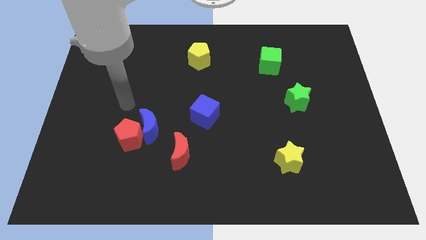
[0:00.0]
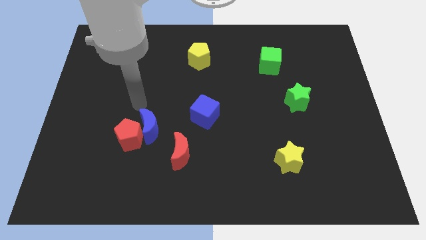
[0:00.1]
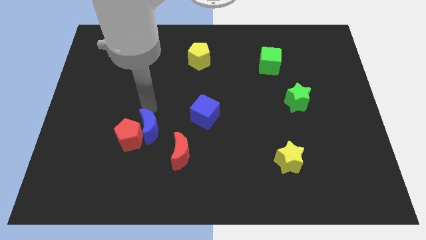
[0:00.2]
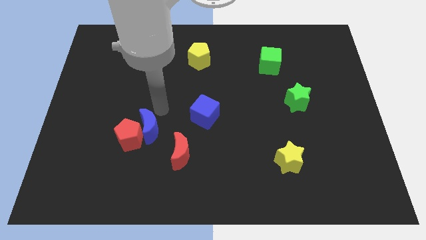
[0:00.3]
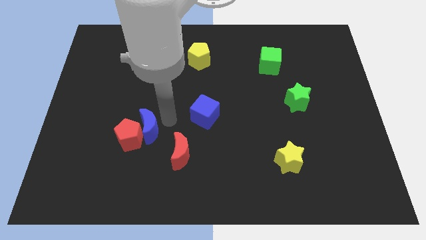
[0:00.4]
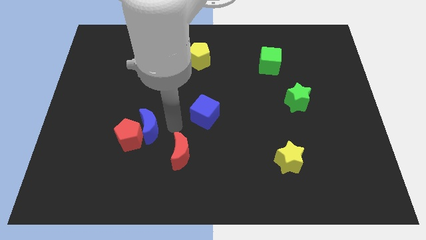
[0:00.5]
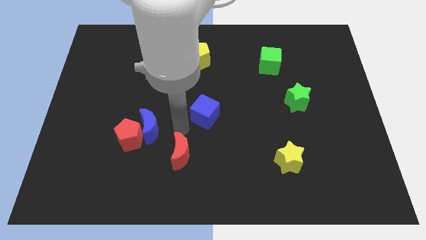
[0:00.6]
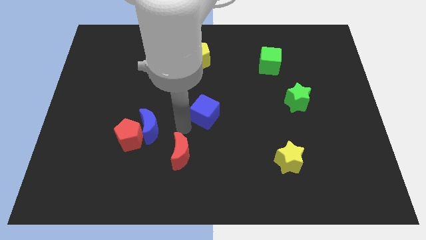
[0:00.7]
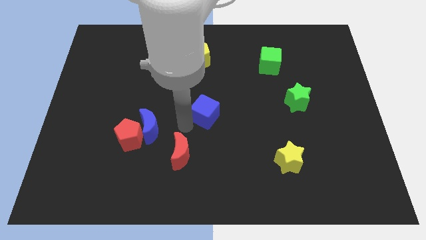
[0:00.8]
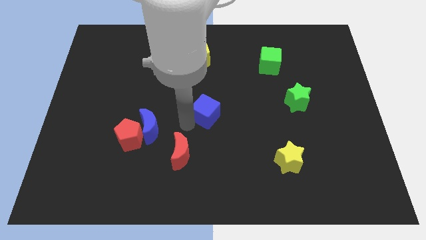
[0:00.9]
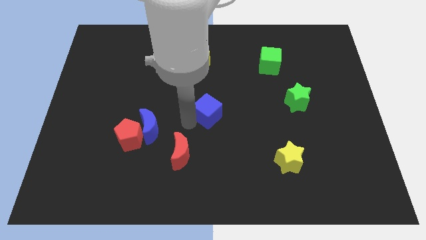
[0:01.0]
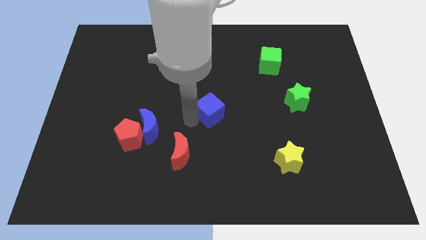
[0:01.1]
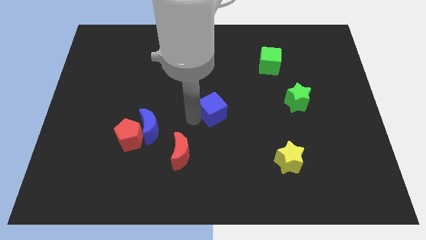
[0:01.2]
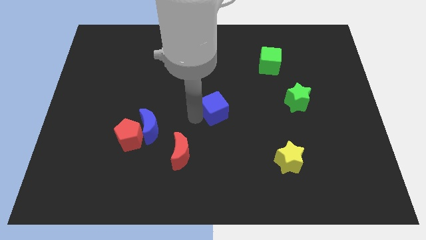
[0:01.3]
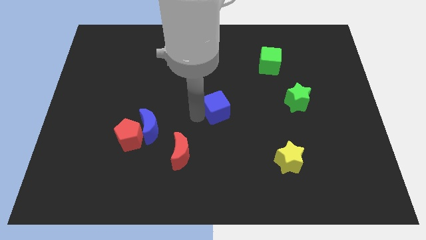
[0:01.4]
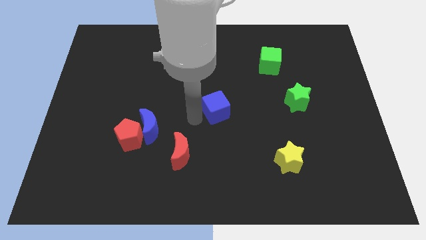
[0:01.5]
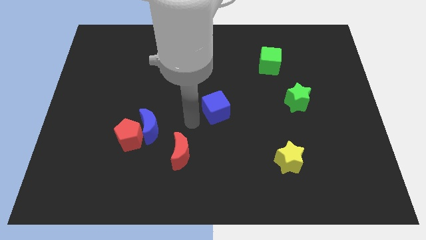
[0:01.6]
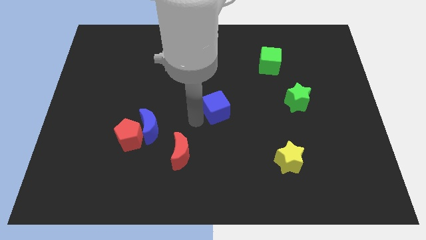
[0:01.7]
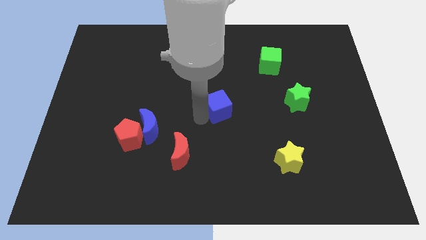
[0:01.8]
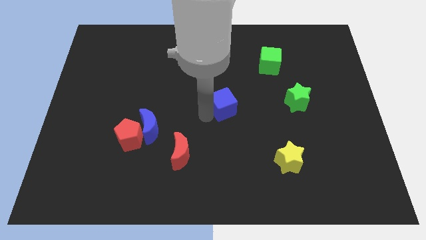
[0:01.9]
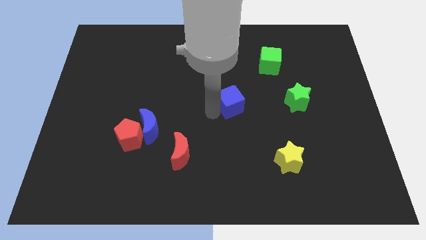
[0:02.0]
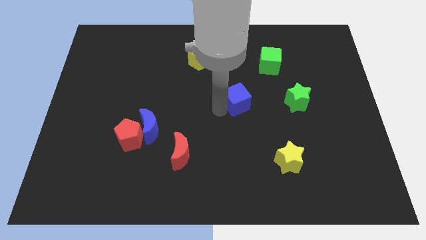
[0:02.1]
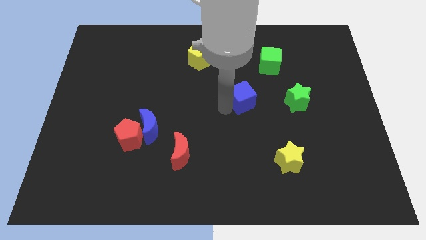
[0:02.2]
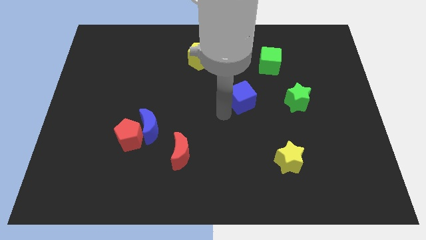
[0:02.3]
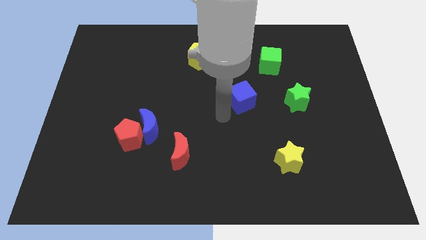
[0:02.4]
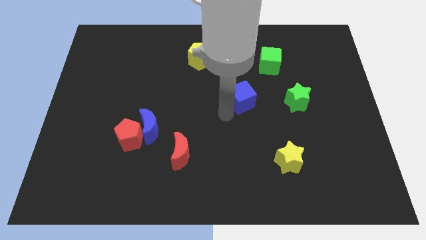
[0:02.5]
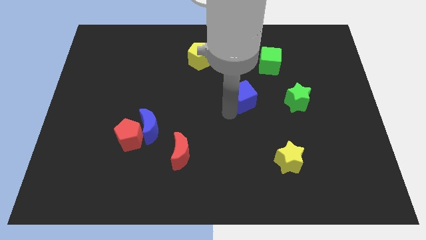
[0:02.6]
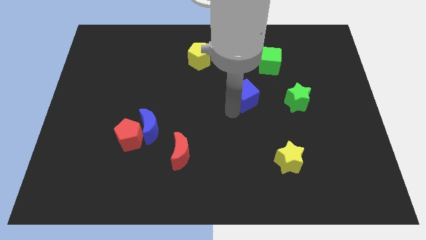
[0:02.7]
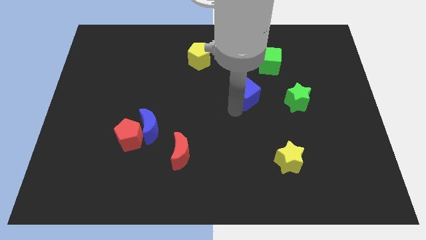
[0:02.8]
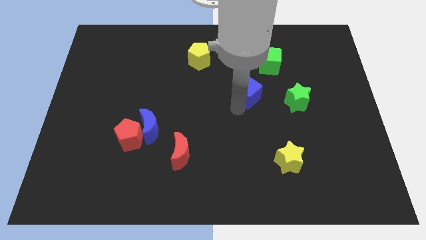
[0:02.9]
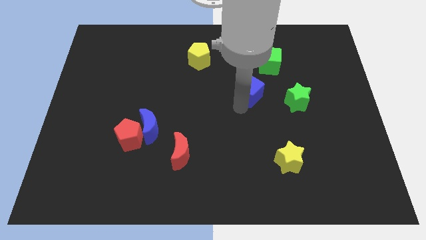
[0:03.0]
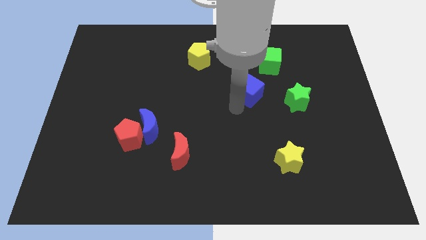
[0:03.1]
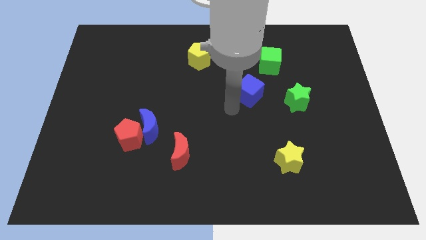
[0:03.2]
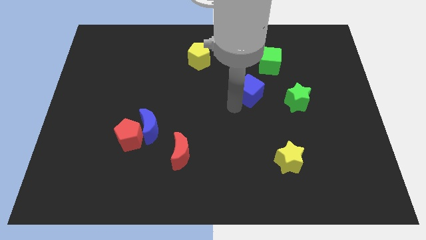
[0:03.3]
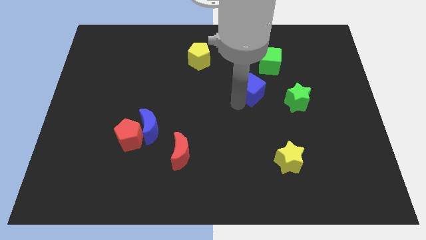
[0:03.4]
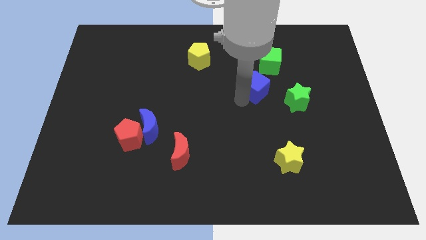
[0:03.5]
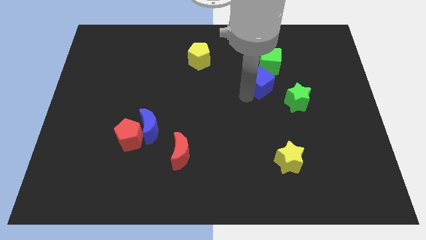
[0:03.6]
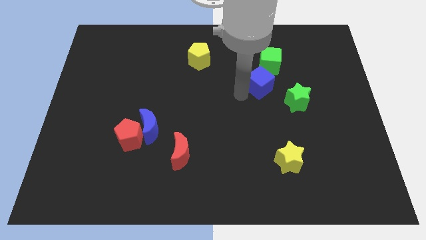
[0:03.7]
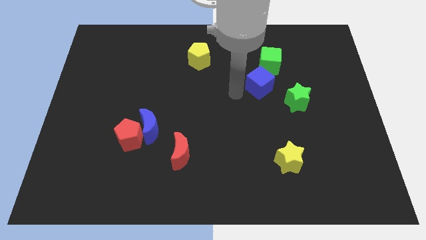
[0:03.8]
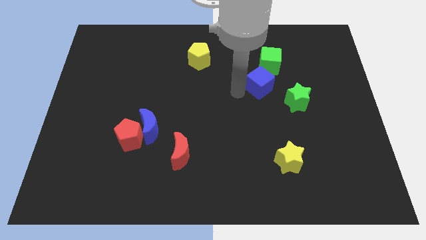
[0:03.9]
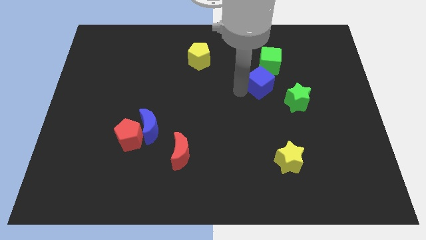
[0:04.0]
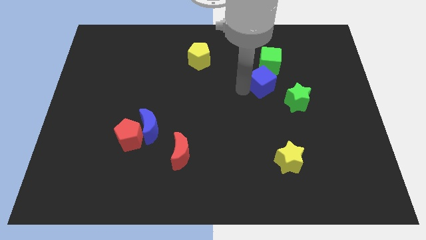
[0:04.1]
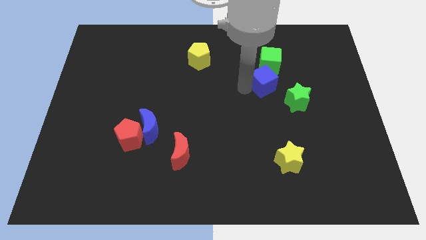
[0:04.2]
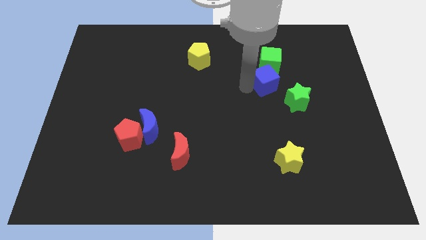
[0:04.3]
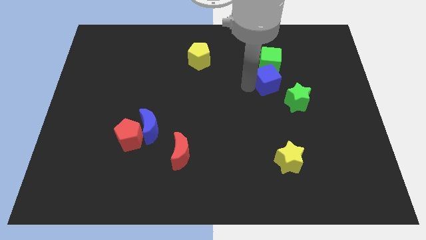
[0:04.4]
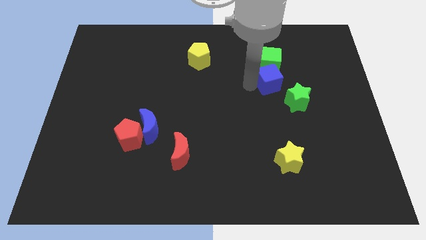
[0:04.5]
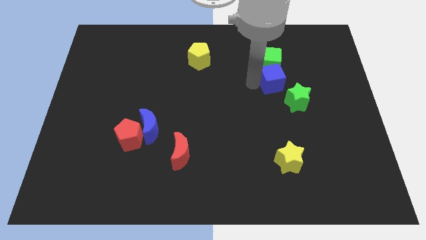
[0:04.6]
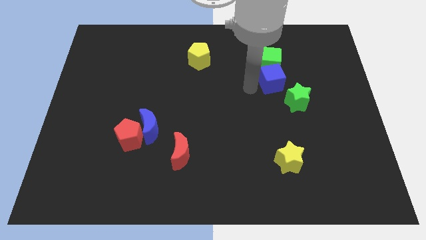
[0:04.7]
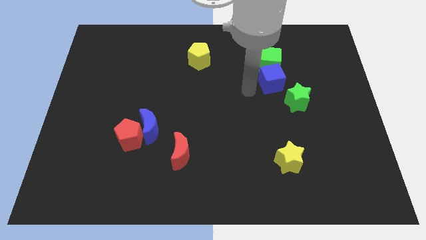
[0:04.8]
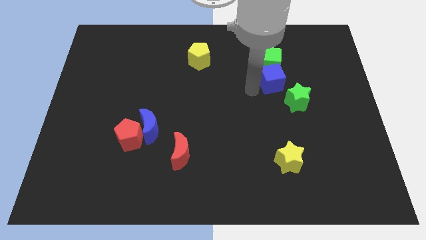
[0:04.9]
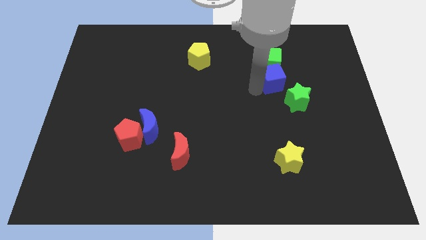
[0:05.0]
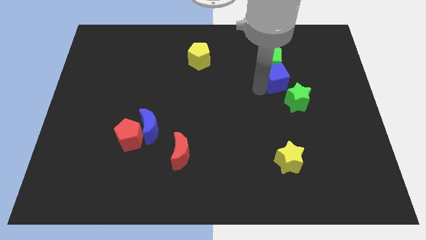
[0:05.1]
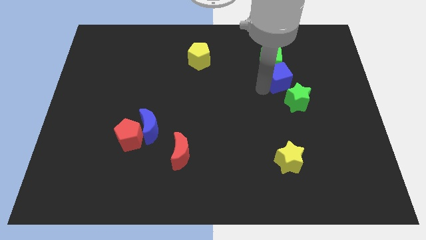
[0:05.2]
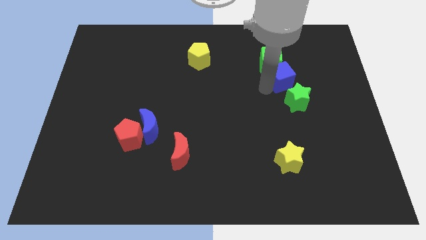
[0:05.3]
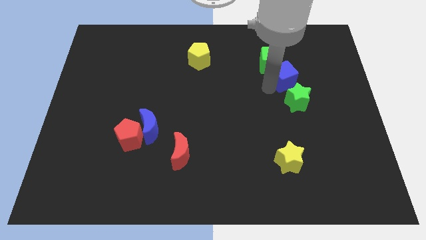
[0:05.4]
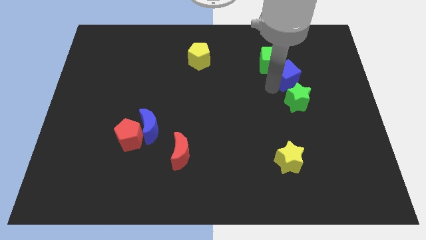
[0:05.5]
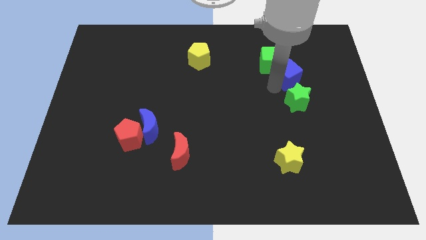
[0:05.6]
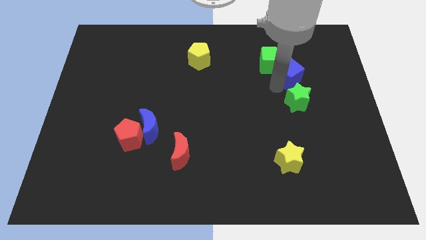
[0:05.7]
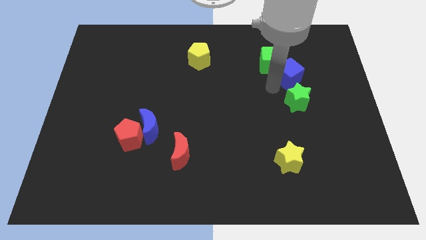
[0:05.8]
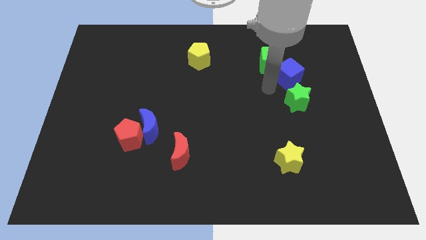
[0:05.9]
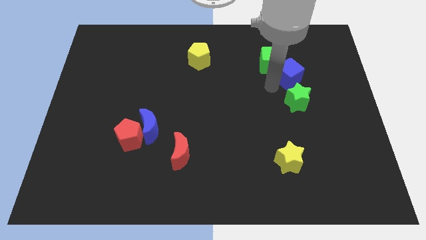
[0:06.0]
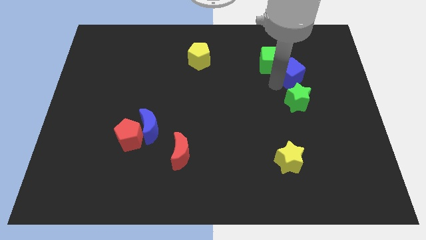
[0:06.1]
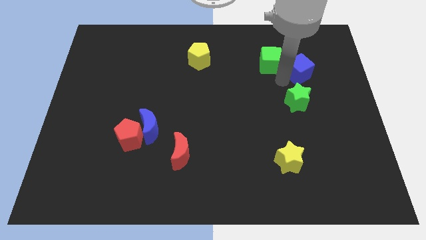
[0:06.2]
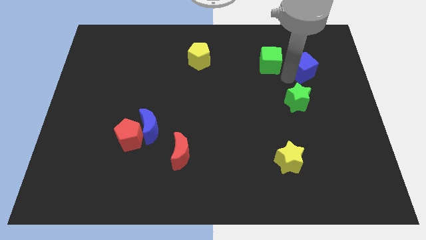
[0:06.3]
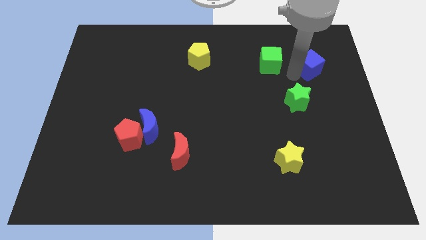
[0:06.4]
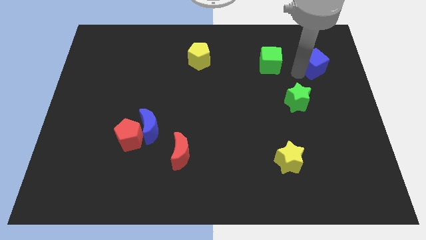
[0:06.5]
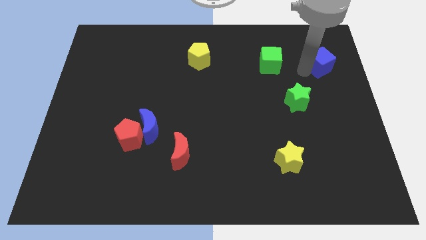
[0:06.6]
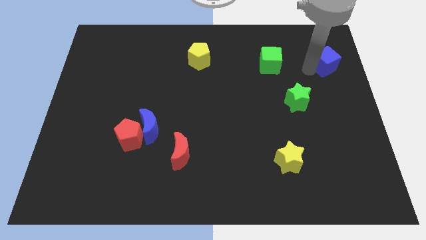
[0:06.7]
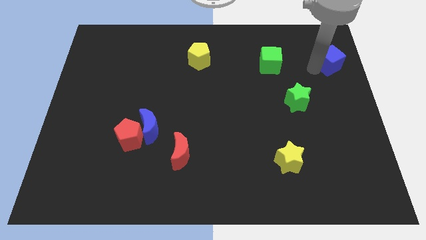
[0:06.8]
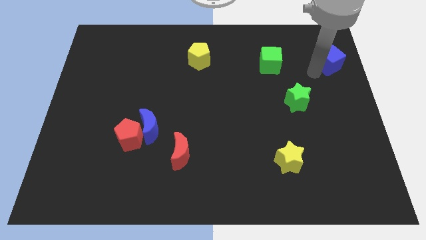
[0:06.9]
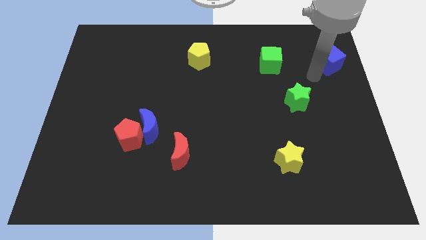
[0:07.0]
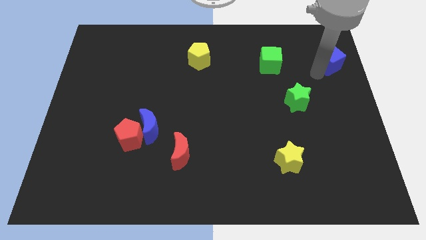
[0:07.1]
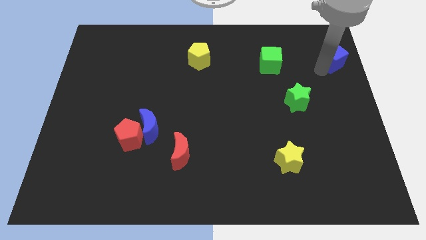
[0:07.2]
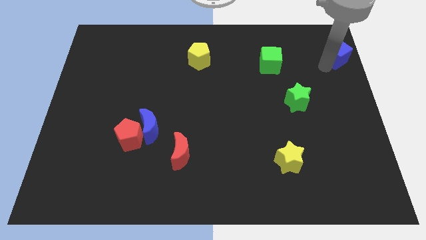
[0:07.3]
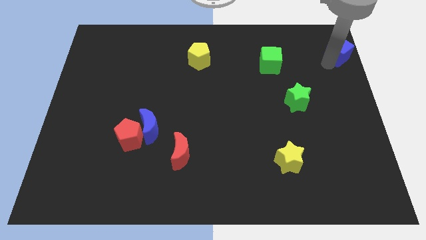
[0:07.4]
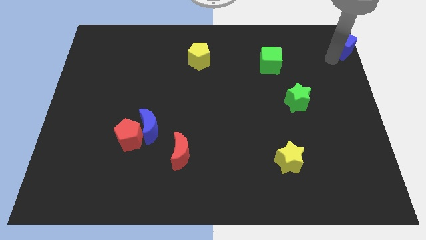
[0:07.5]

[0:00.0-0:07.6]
put the blue cube to the top right of the board
